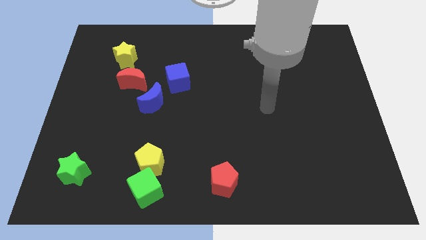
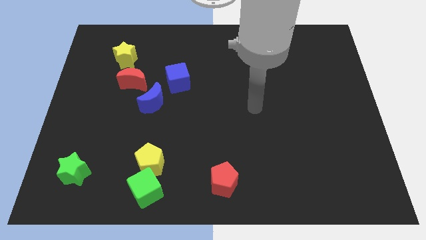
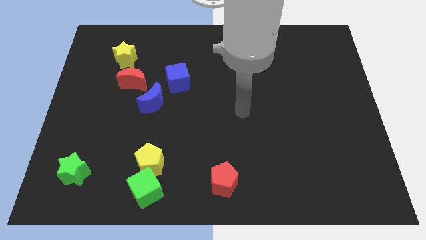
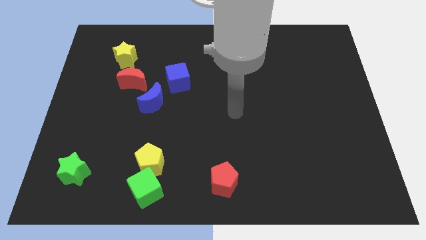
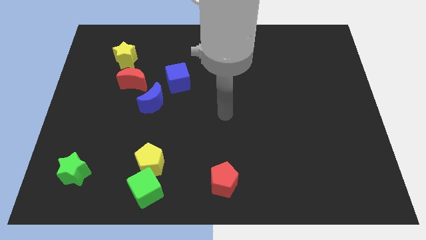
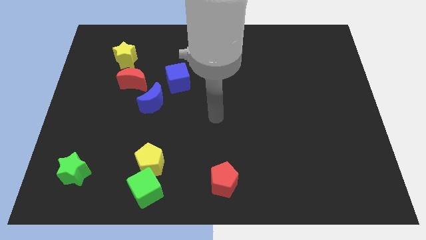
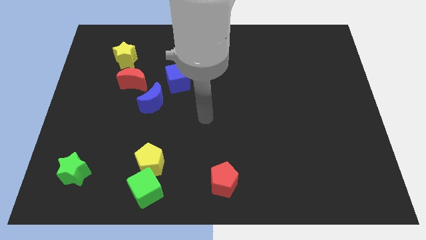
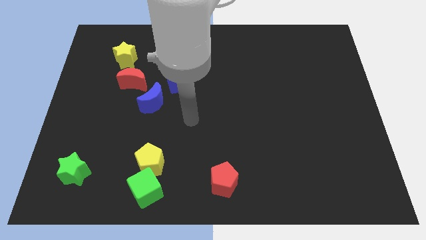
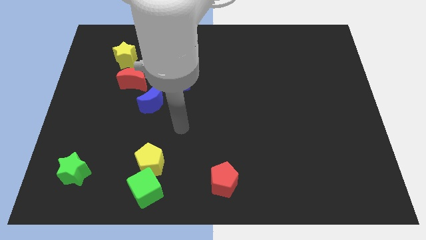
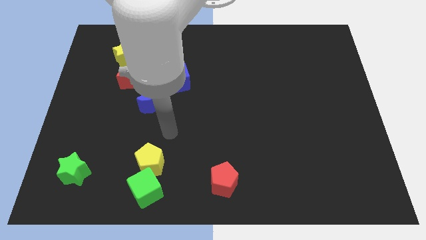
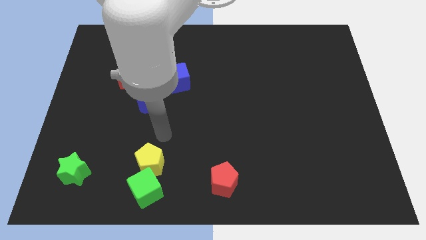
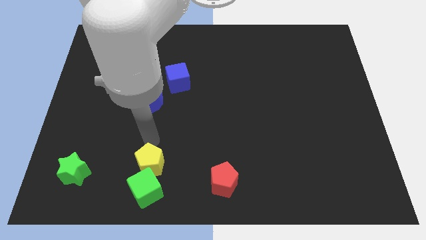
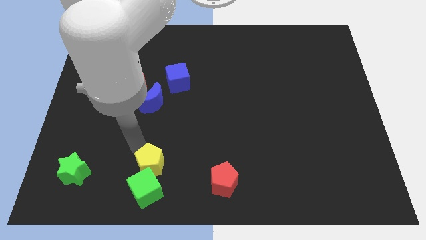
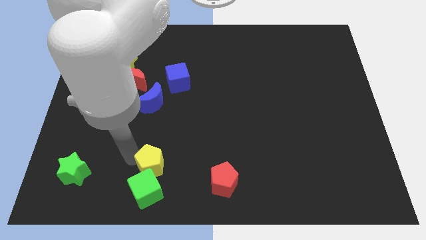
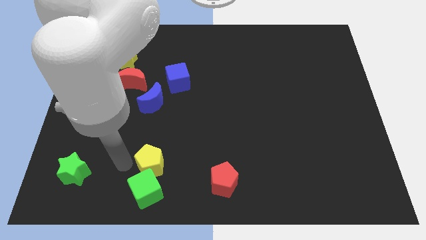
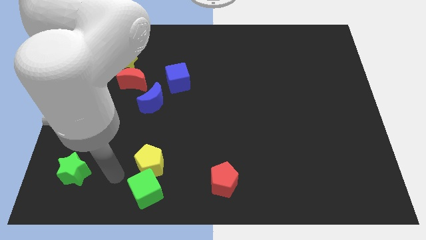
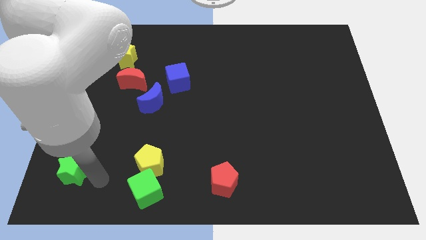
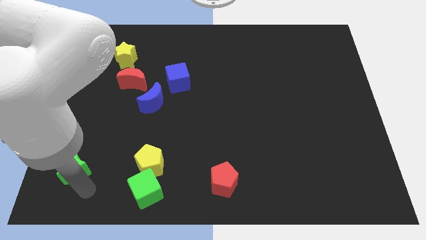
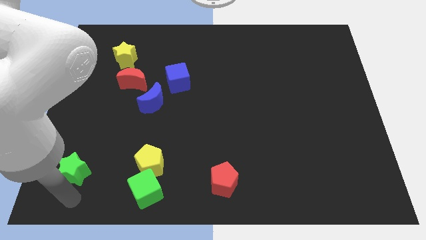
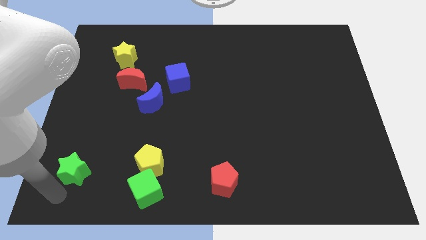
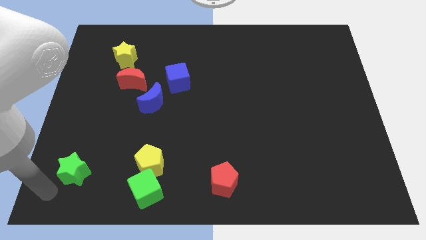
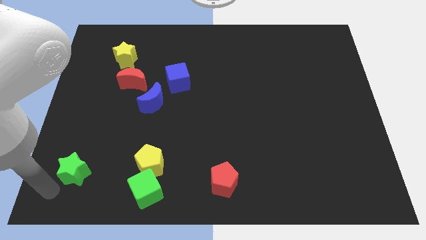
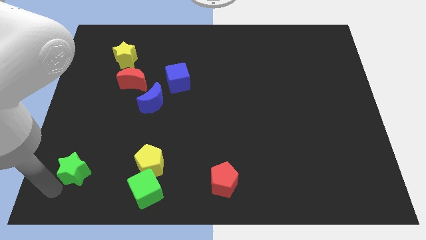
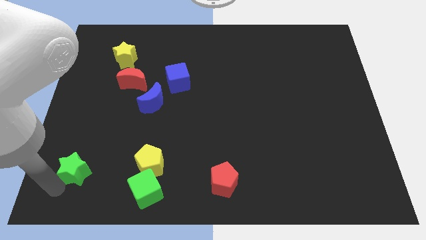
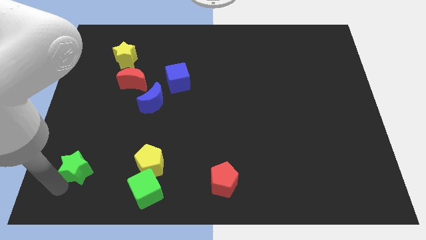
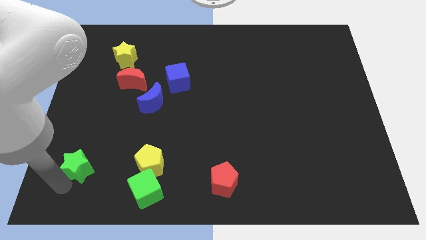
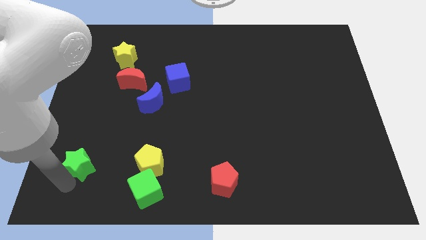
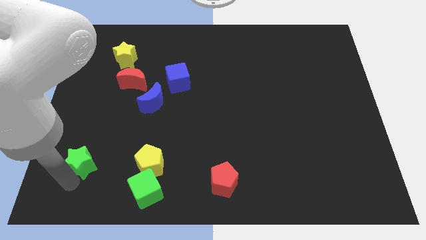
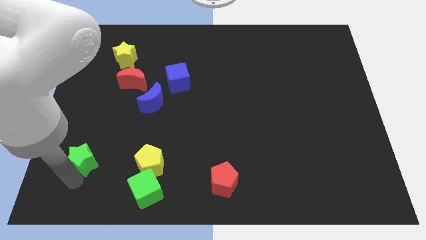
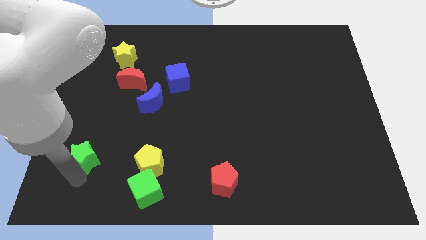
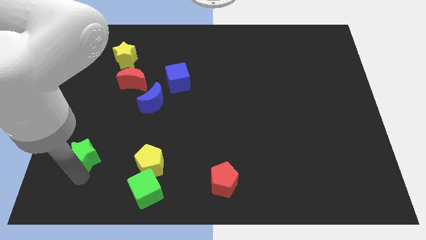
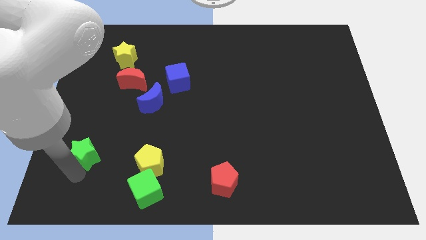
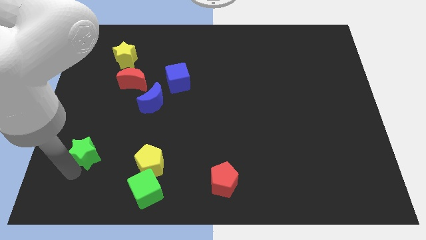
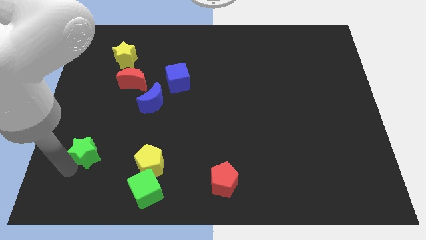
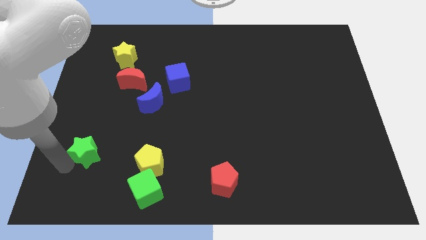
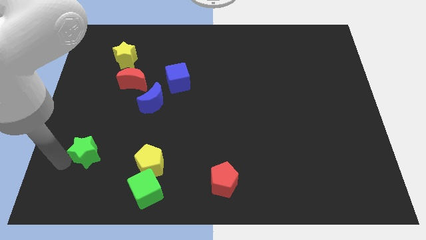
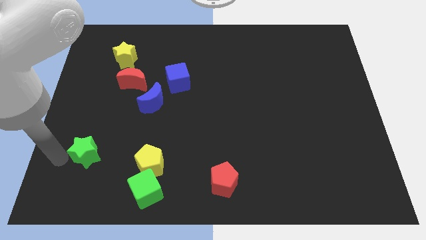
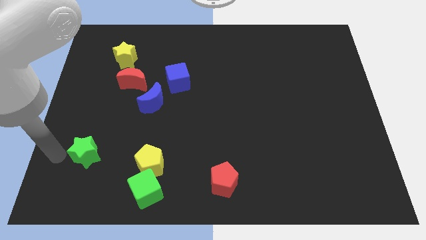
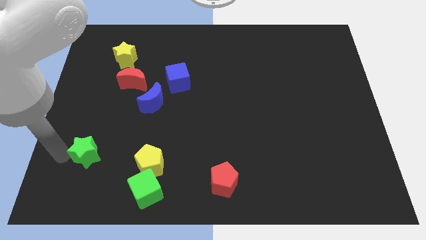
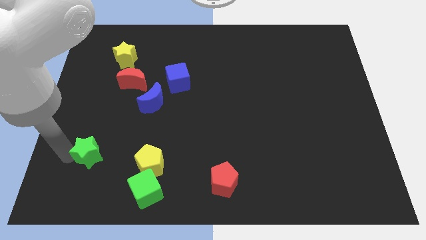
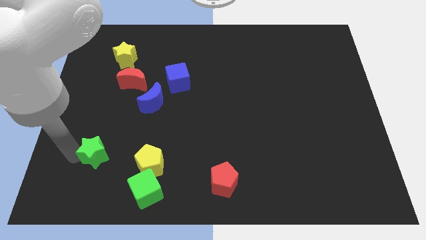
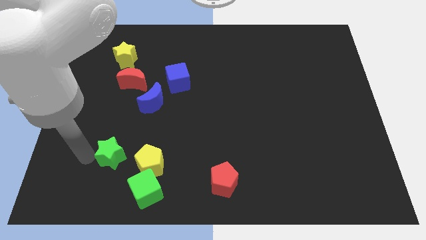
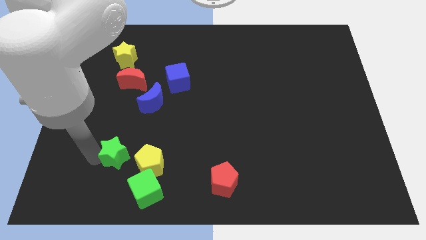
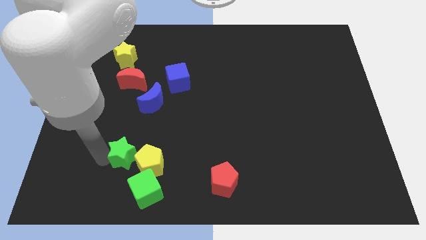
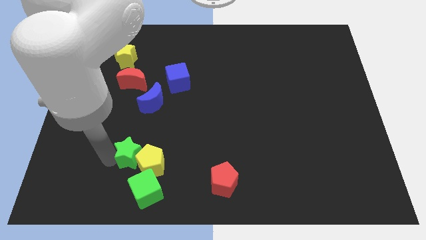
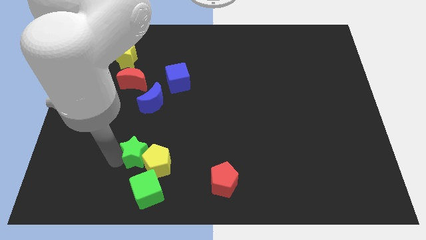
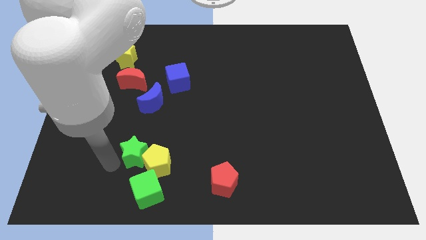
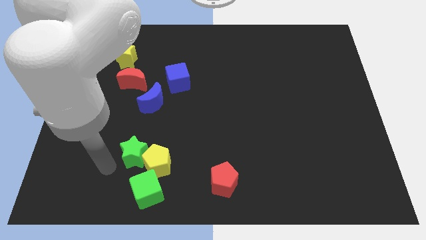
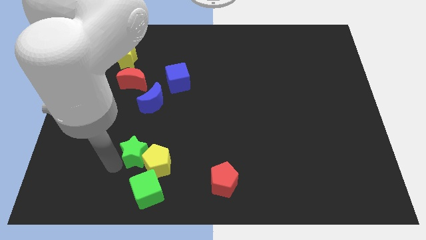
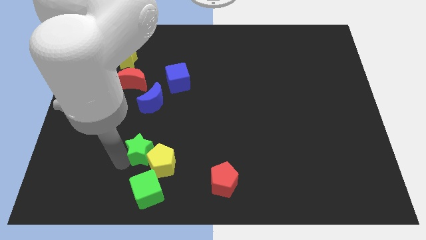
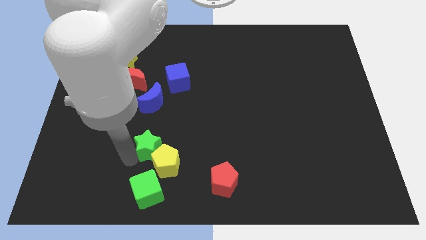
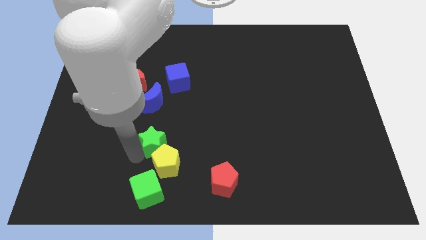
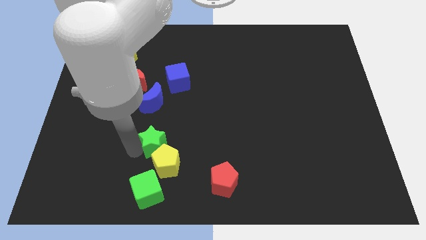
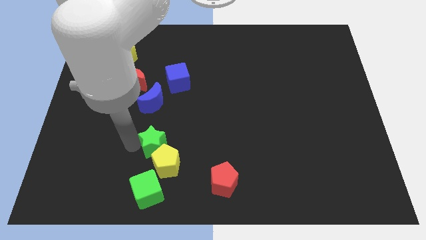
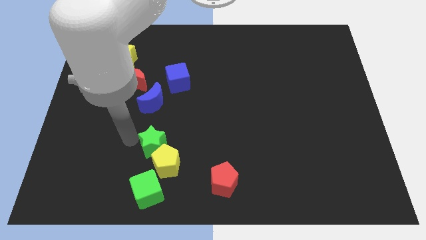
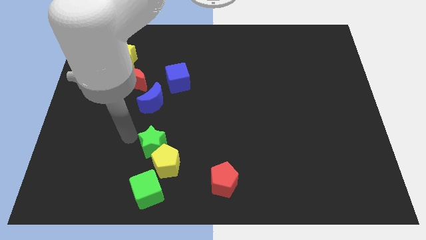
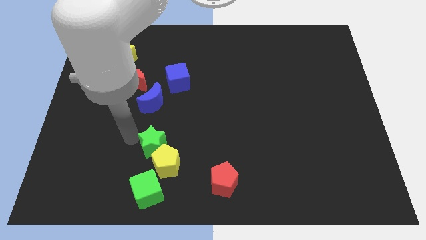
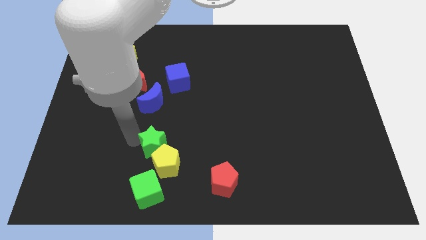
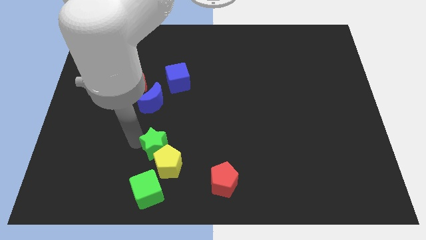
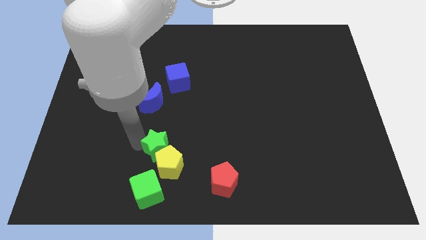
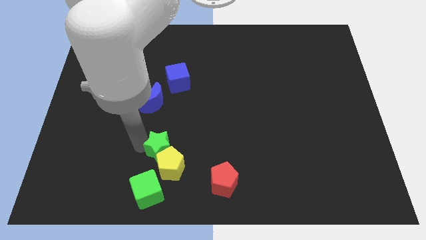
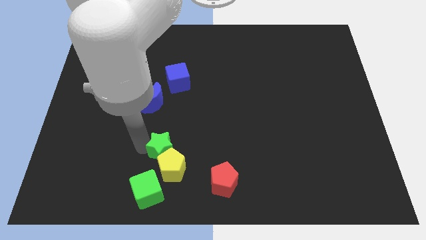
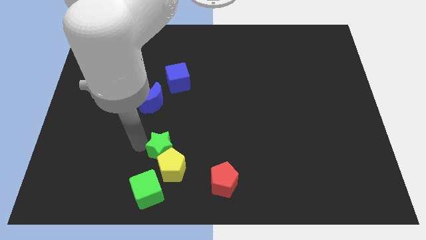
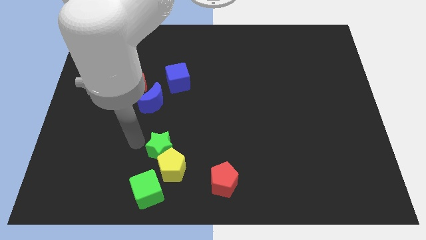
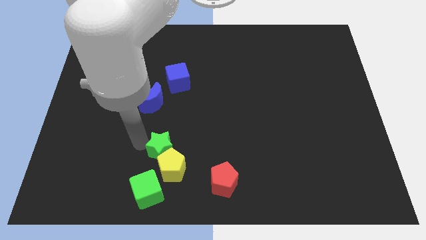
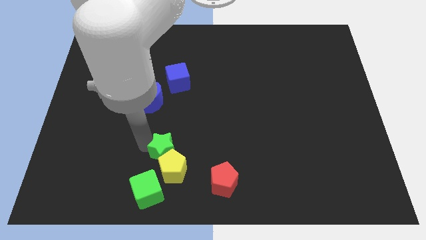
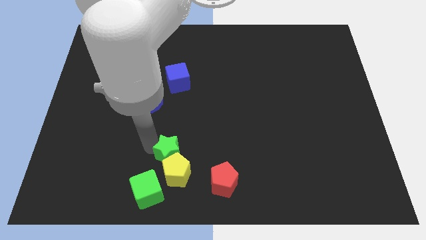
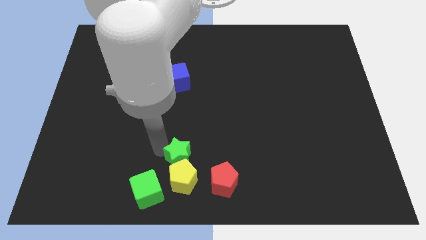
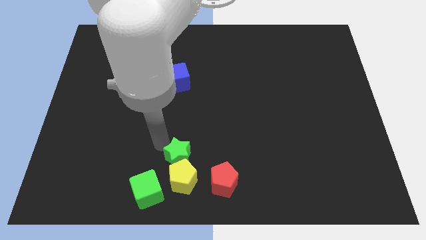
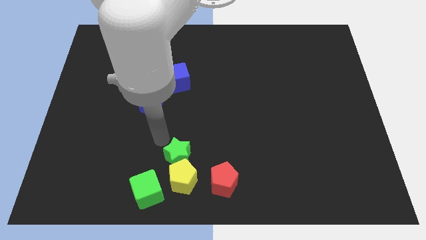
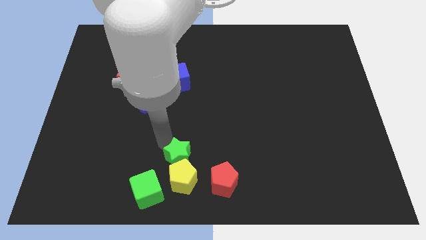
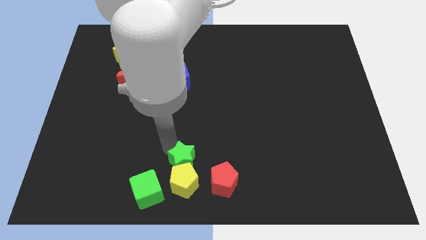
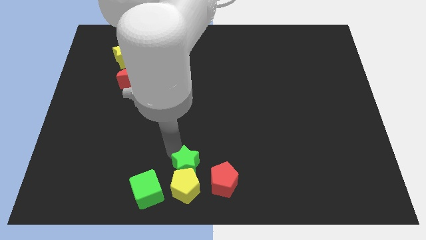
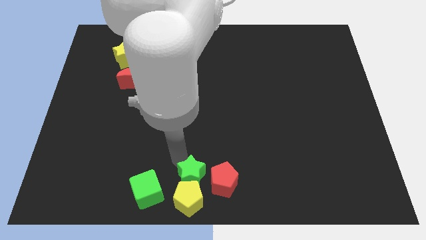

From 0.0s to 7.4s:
move the green star close to the red pentagon

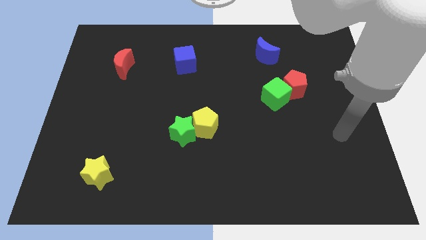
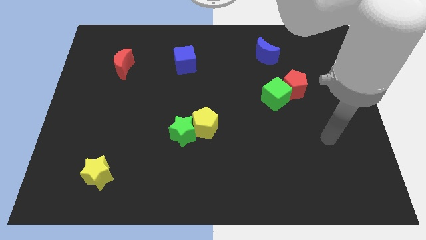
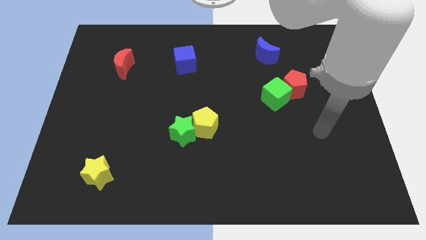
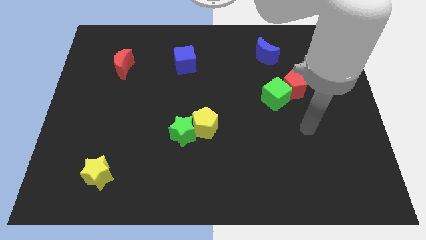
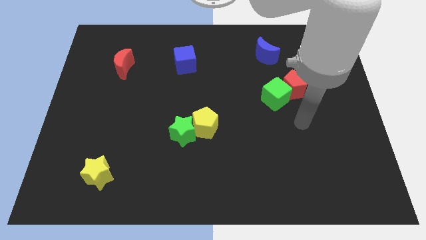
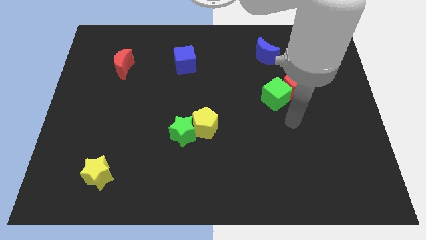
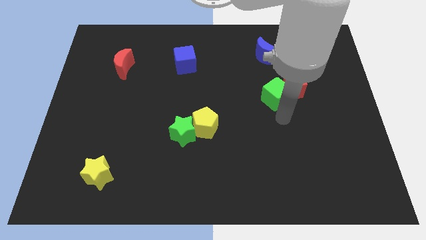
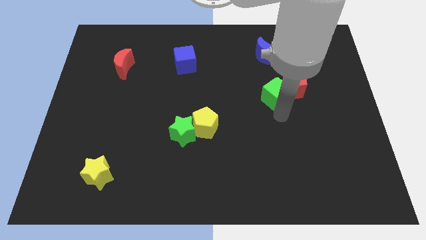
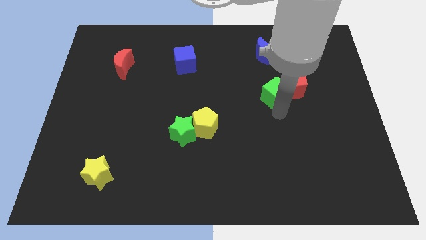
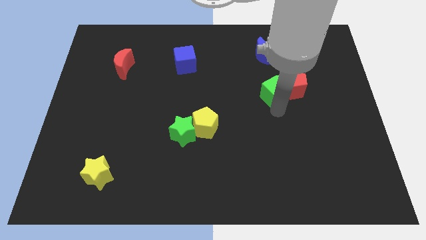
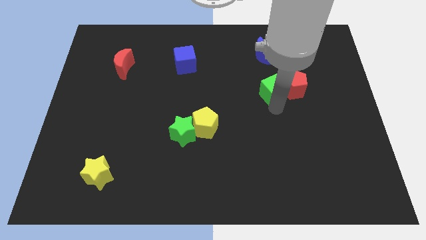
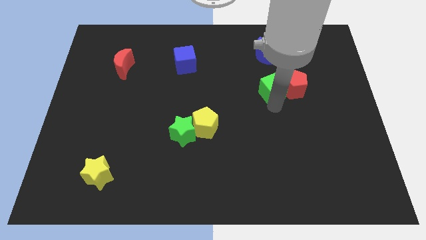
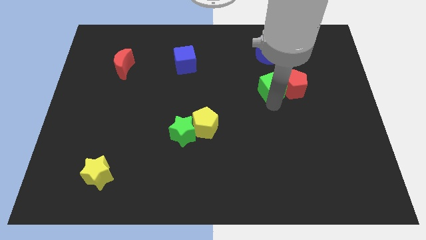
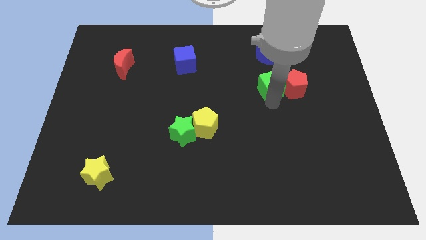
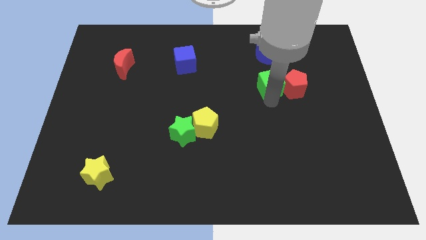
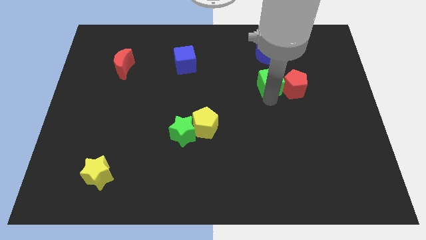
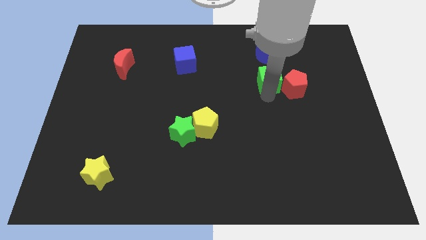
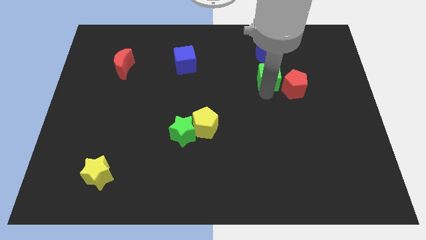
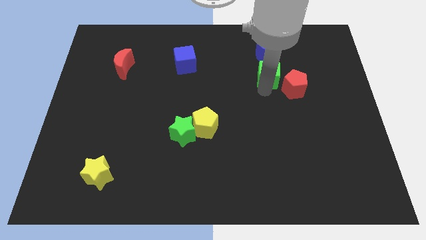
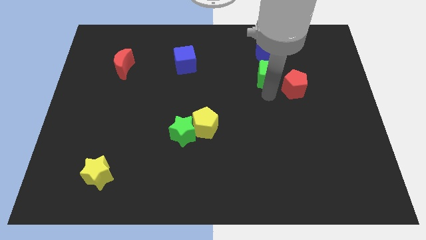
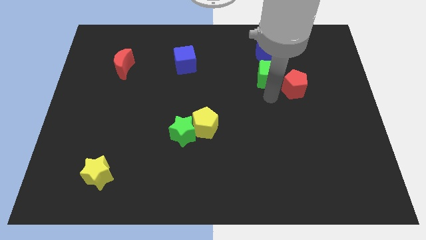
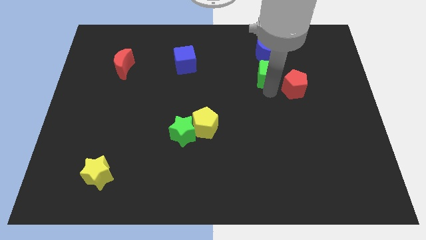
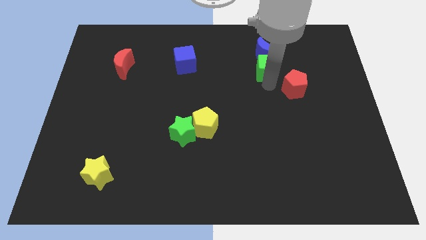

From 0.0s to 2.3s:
push the green cube to the blue moon
